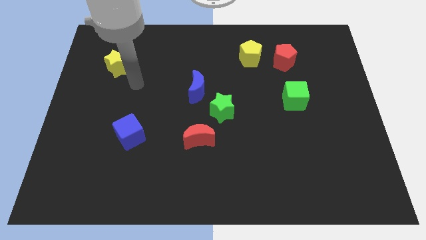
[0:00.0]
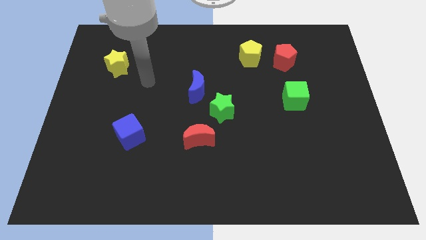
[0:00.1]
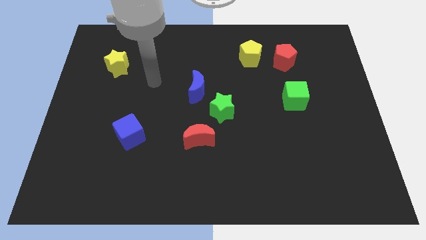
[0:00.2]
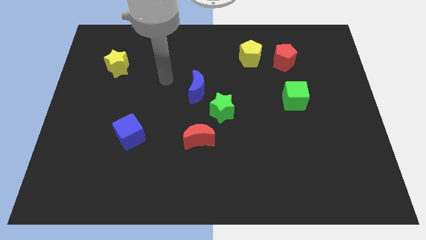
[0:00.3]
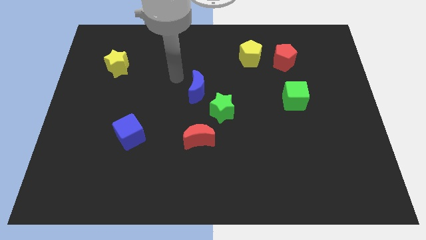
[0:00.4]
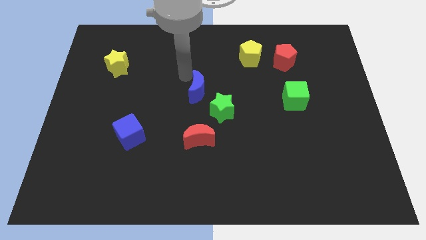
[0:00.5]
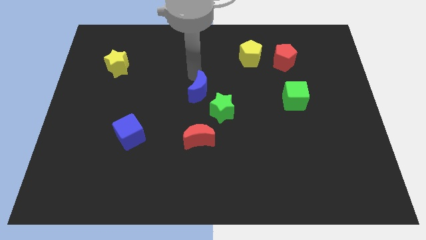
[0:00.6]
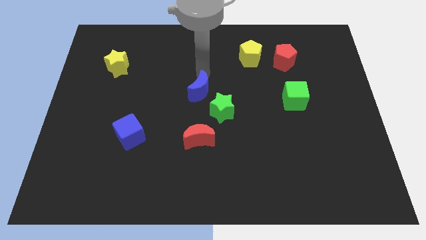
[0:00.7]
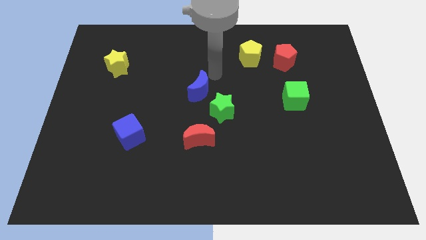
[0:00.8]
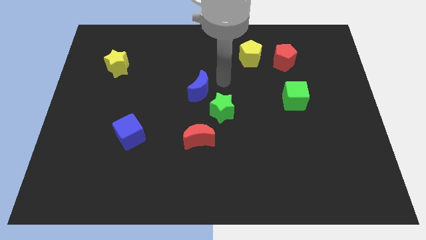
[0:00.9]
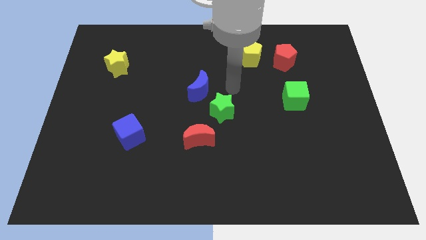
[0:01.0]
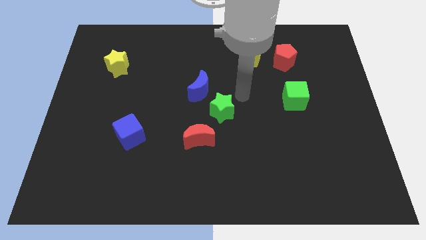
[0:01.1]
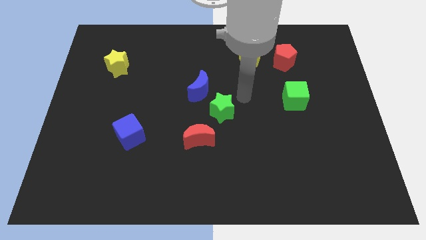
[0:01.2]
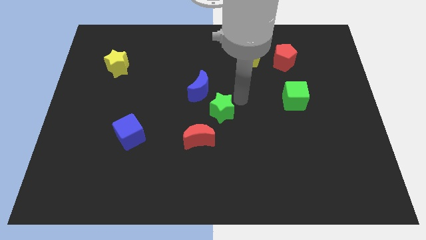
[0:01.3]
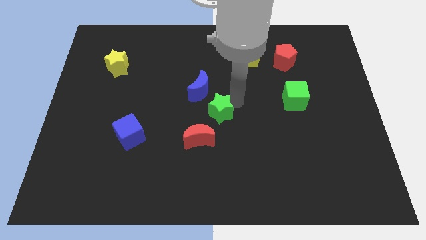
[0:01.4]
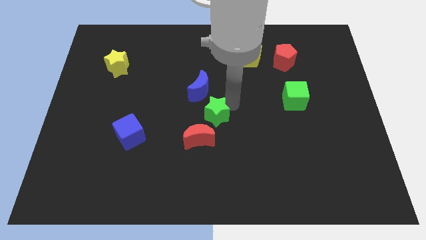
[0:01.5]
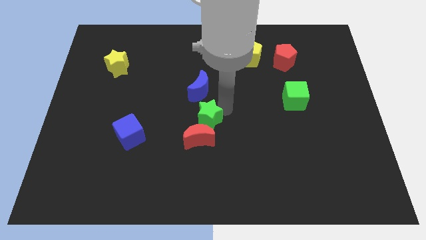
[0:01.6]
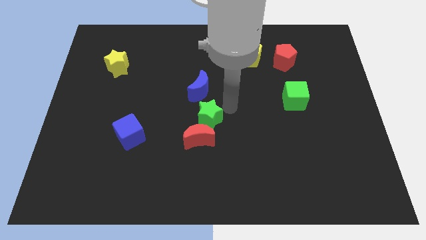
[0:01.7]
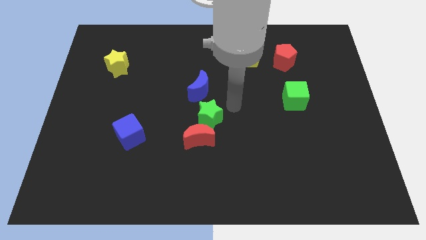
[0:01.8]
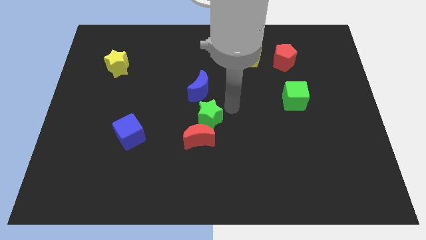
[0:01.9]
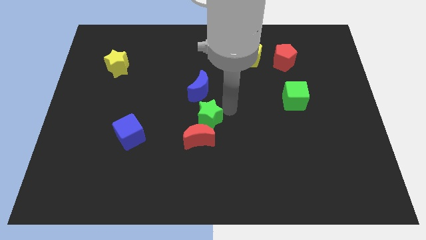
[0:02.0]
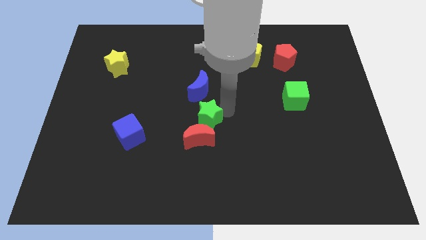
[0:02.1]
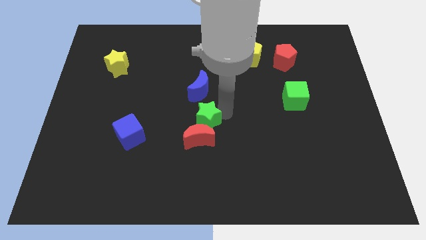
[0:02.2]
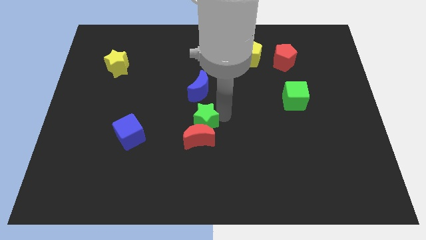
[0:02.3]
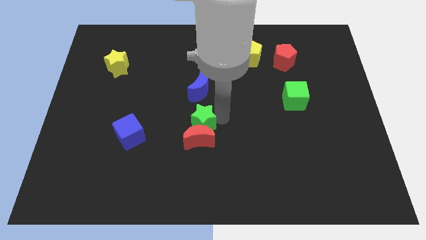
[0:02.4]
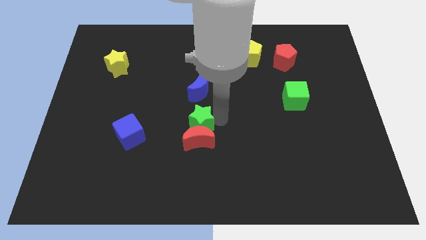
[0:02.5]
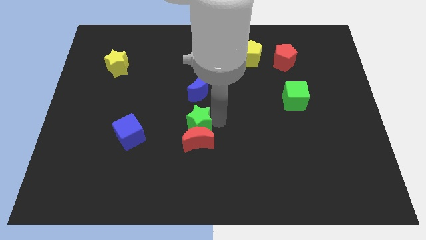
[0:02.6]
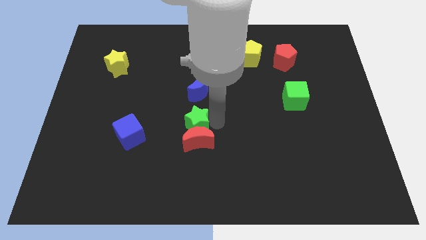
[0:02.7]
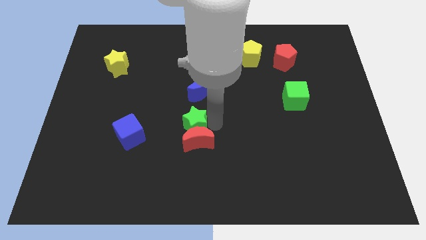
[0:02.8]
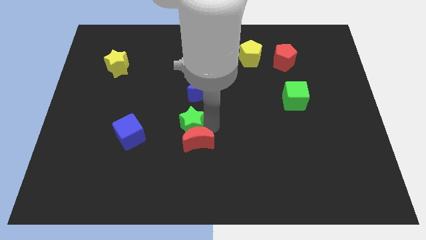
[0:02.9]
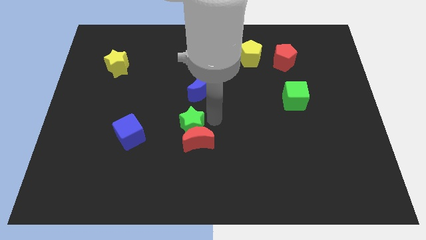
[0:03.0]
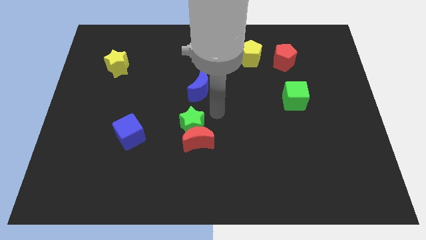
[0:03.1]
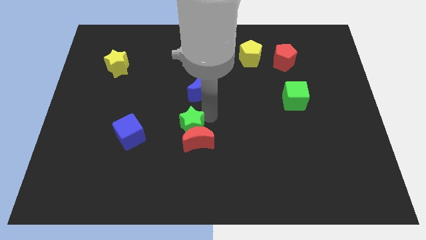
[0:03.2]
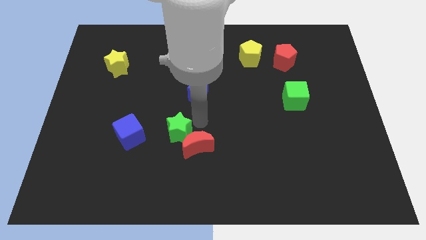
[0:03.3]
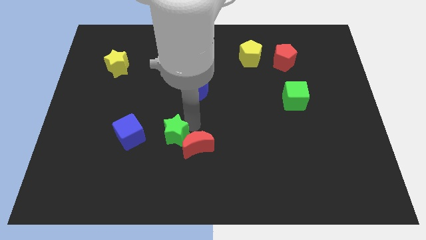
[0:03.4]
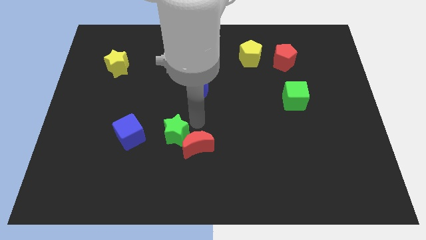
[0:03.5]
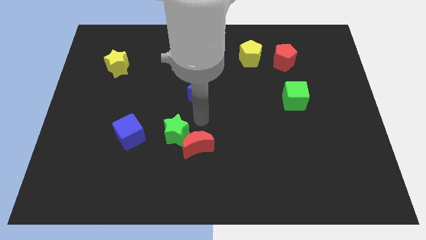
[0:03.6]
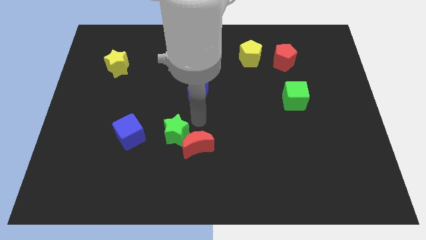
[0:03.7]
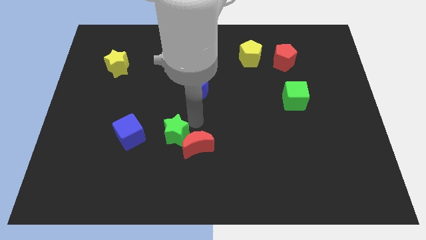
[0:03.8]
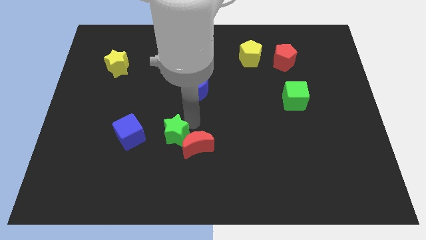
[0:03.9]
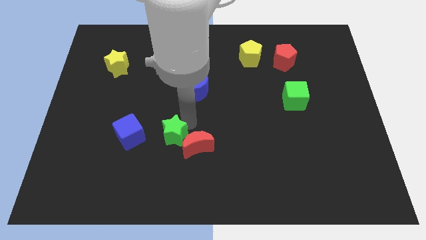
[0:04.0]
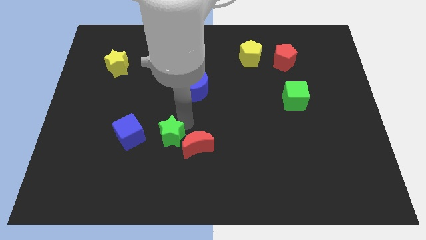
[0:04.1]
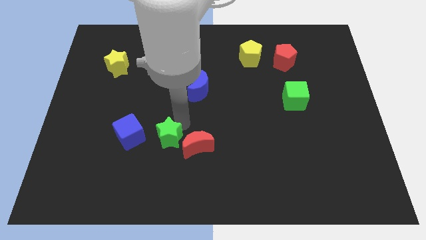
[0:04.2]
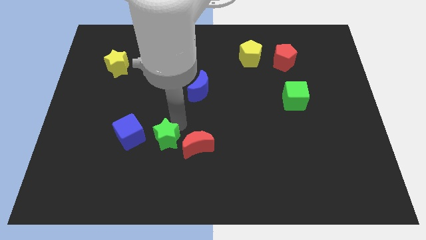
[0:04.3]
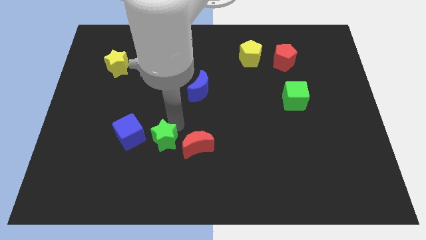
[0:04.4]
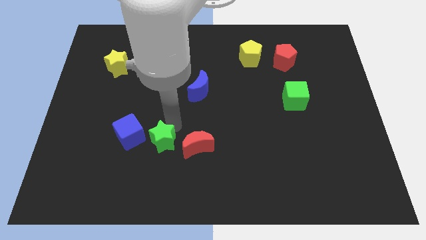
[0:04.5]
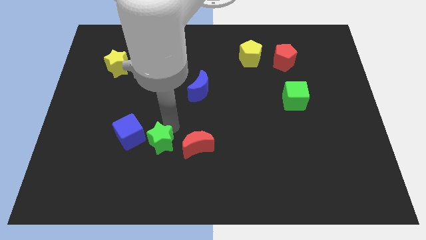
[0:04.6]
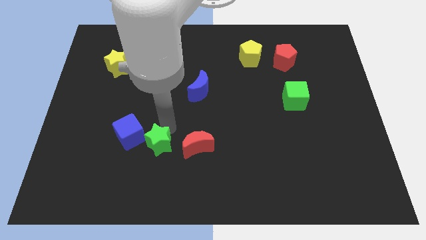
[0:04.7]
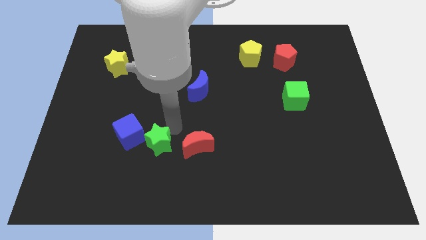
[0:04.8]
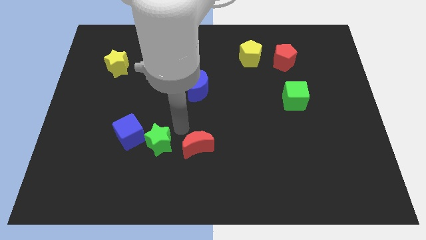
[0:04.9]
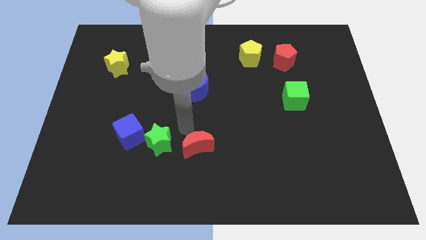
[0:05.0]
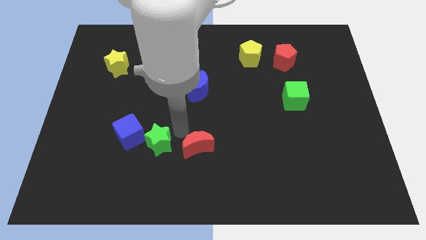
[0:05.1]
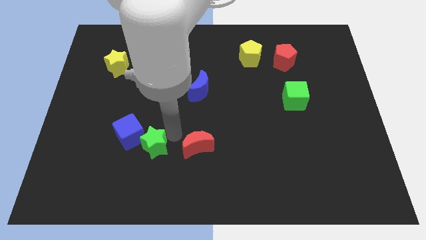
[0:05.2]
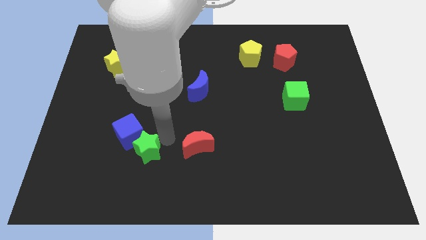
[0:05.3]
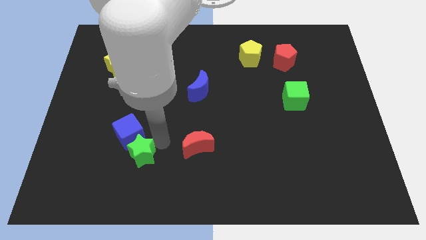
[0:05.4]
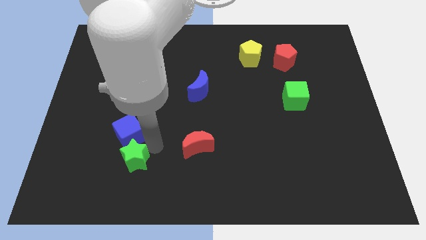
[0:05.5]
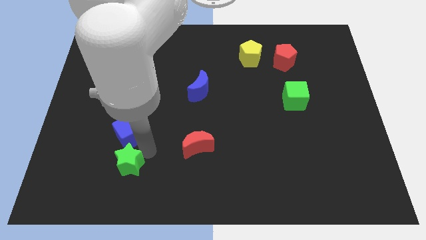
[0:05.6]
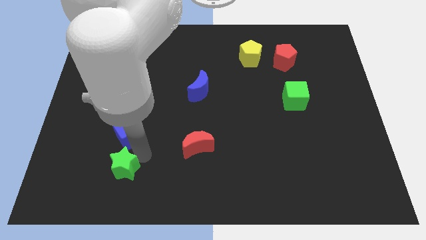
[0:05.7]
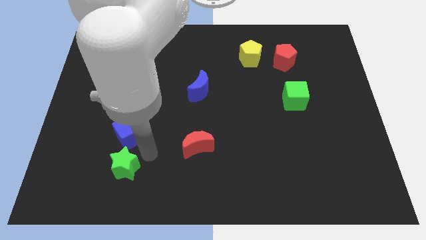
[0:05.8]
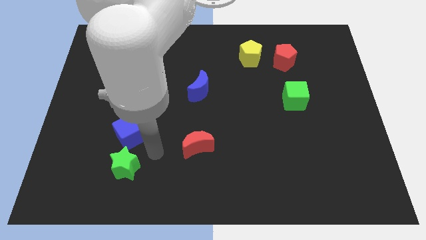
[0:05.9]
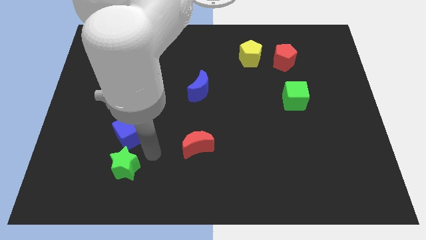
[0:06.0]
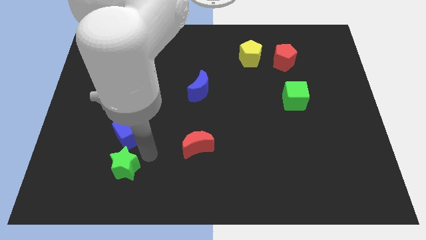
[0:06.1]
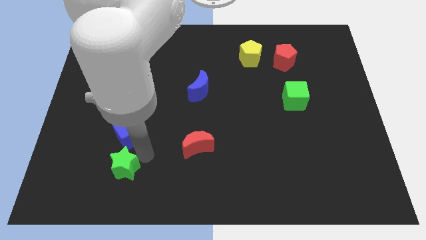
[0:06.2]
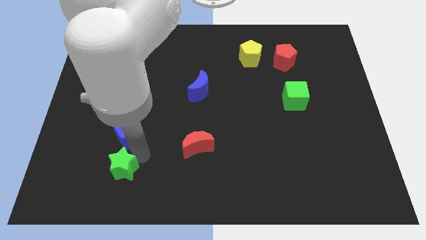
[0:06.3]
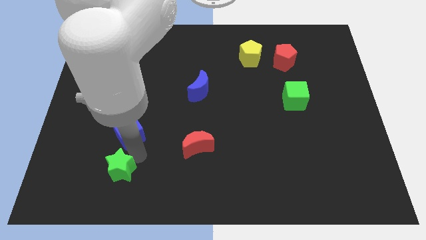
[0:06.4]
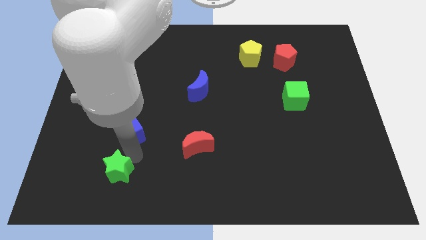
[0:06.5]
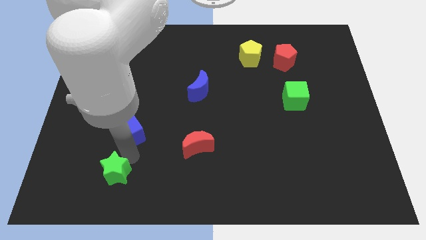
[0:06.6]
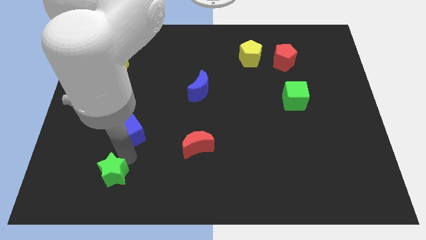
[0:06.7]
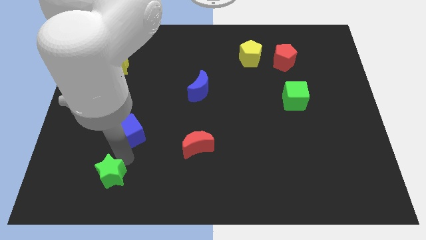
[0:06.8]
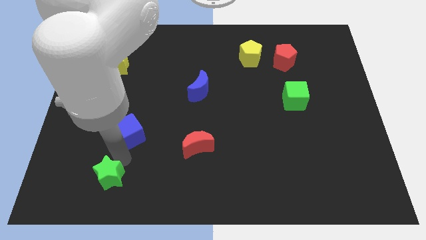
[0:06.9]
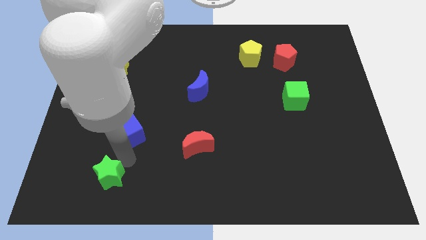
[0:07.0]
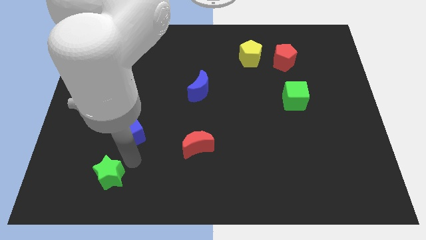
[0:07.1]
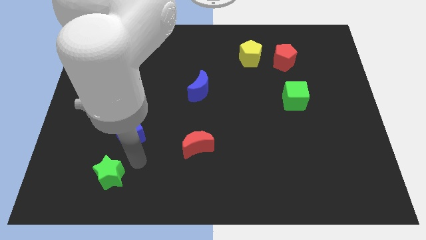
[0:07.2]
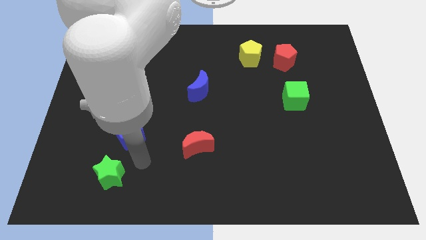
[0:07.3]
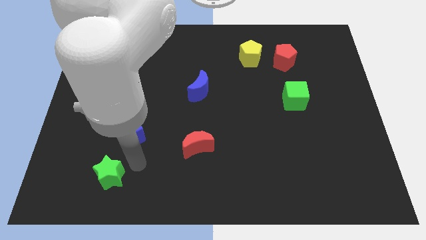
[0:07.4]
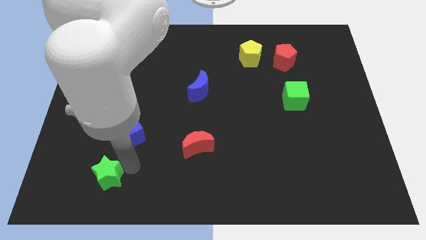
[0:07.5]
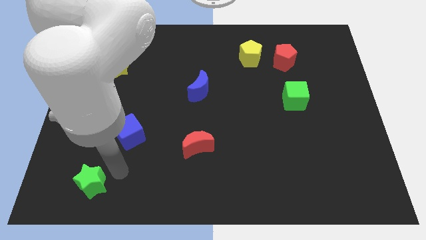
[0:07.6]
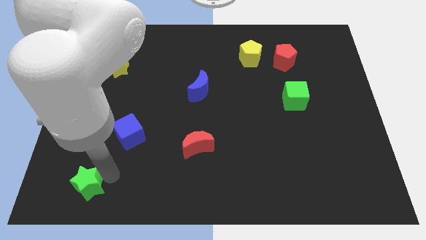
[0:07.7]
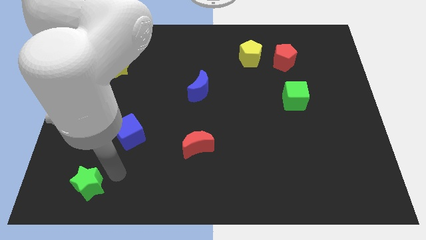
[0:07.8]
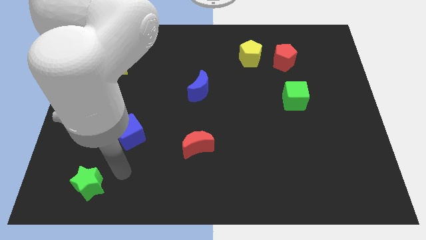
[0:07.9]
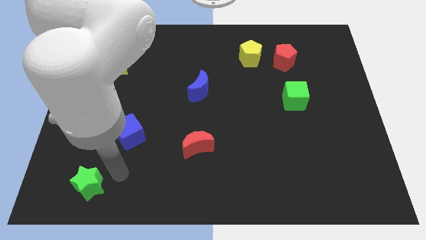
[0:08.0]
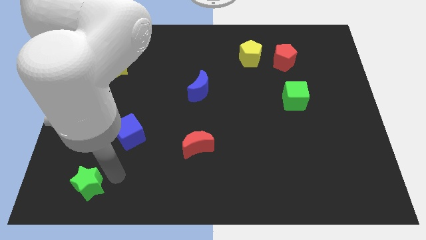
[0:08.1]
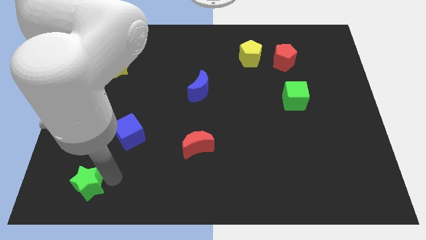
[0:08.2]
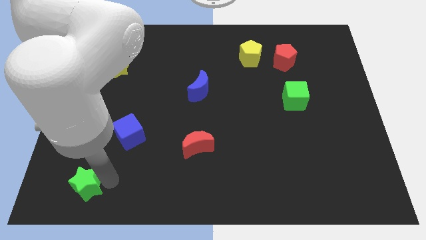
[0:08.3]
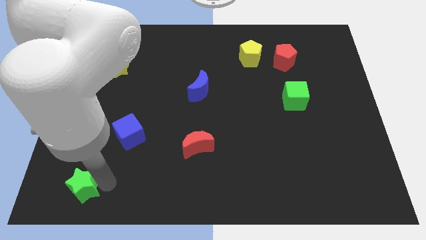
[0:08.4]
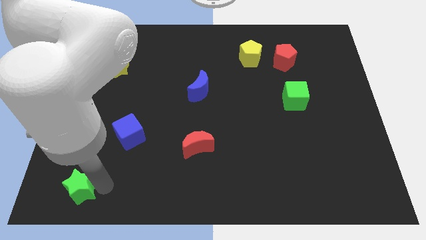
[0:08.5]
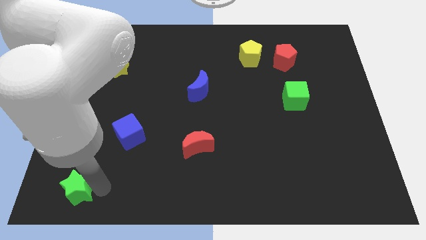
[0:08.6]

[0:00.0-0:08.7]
put the green star to the bottom left
